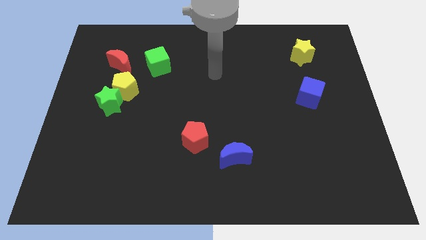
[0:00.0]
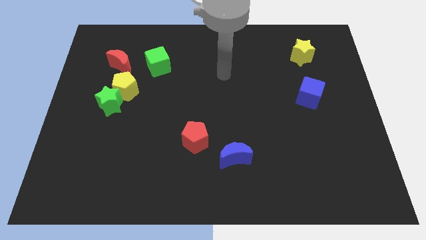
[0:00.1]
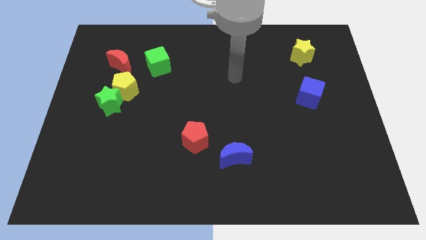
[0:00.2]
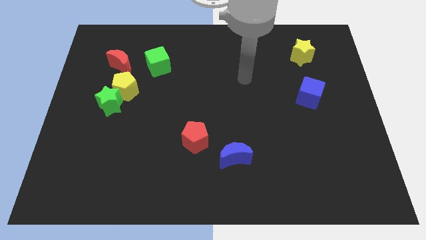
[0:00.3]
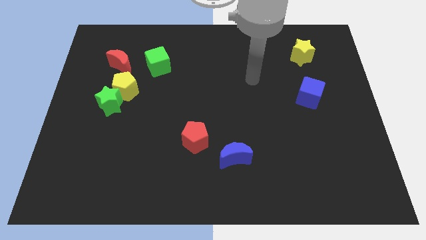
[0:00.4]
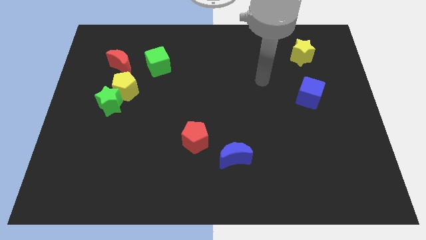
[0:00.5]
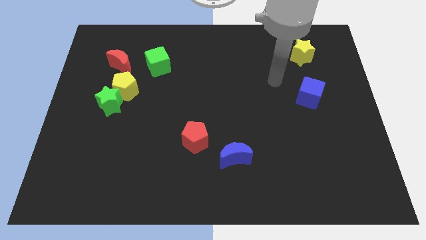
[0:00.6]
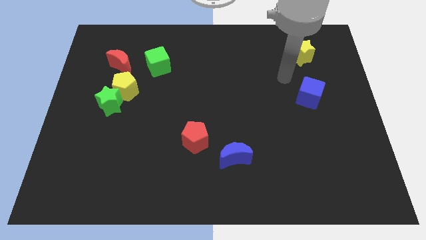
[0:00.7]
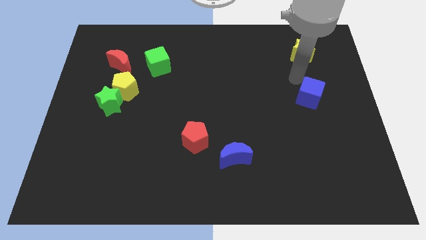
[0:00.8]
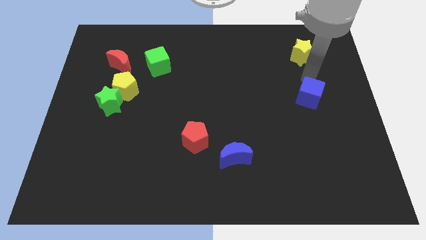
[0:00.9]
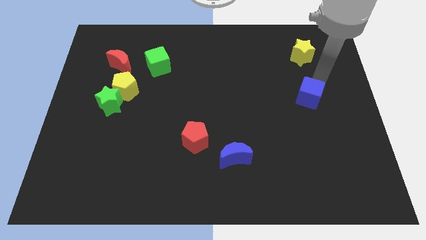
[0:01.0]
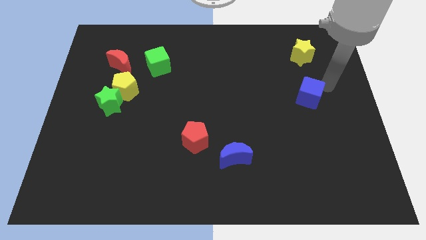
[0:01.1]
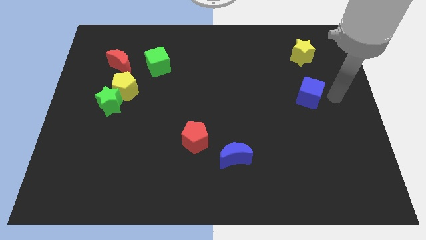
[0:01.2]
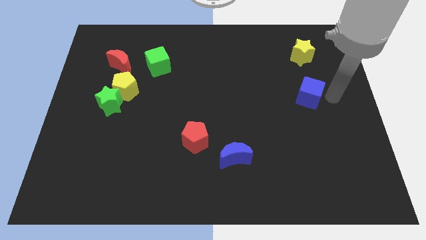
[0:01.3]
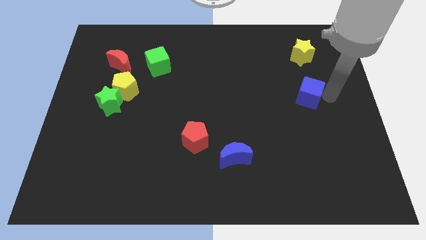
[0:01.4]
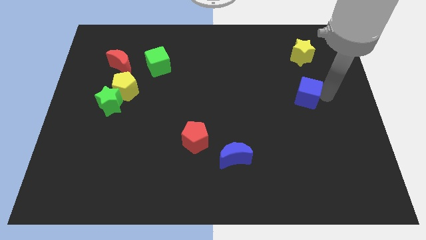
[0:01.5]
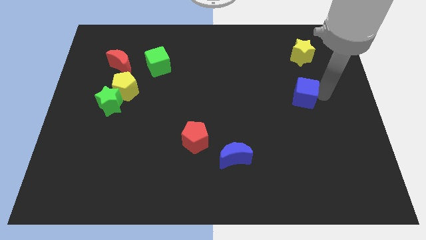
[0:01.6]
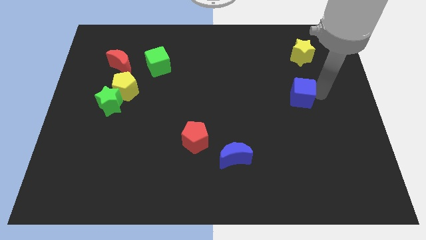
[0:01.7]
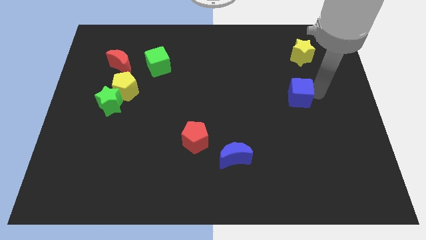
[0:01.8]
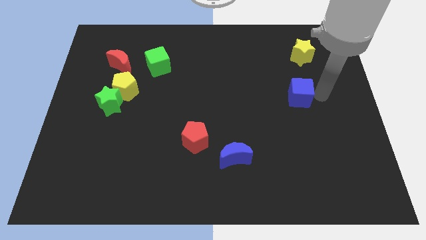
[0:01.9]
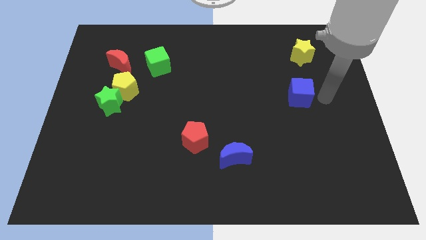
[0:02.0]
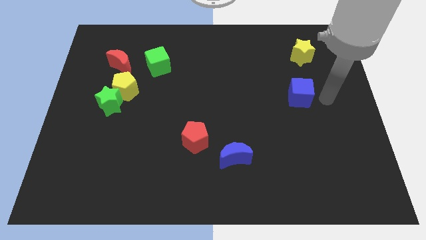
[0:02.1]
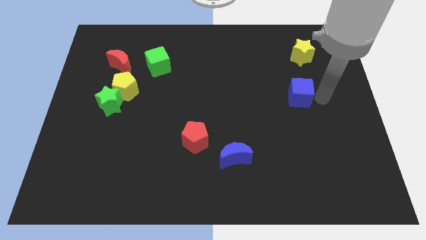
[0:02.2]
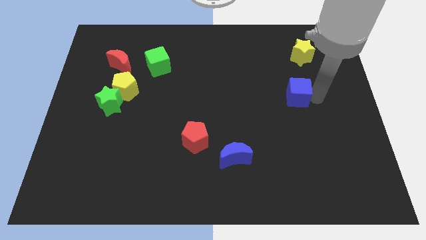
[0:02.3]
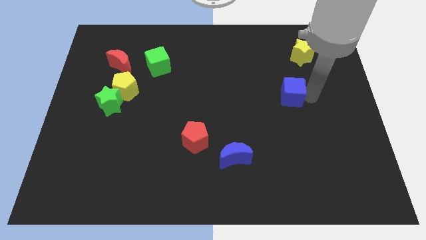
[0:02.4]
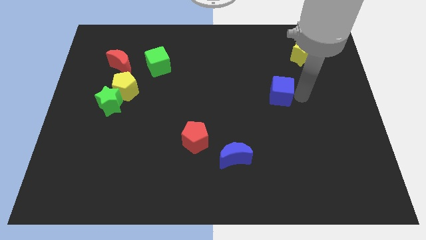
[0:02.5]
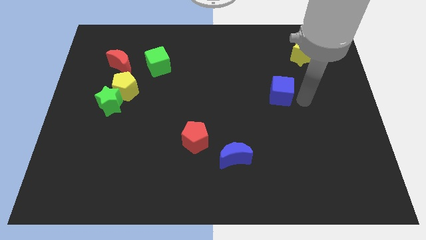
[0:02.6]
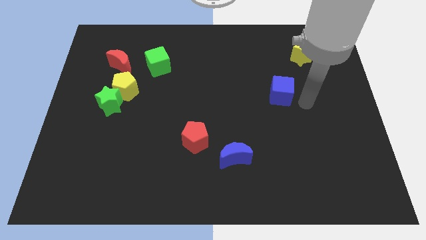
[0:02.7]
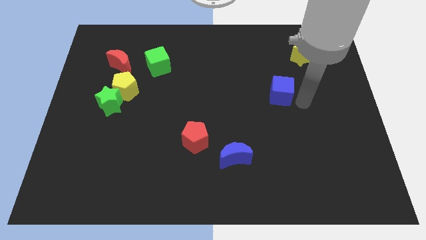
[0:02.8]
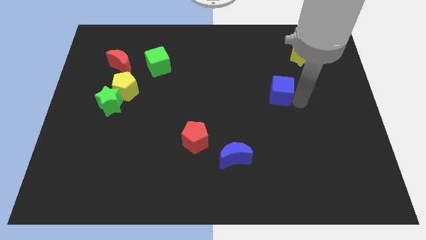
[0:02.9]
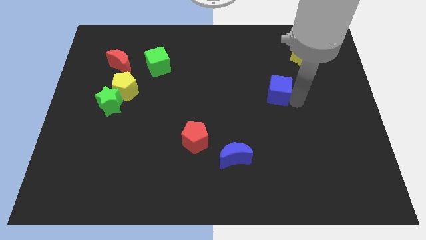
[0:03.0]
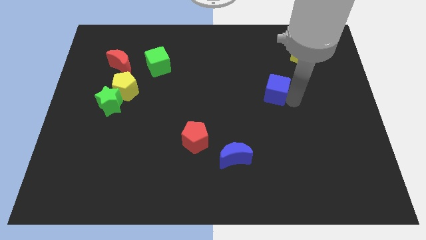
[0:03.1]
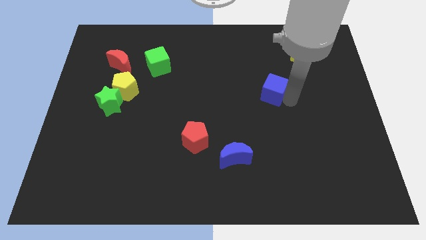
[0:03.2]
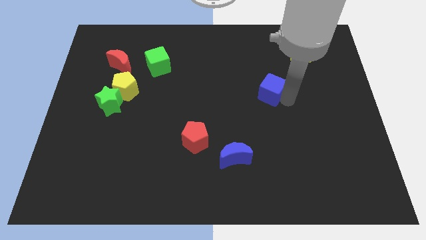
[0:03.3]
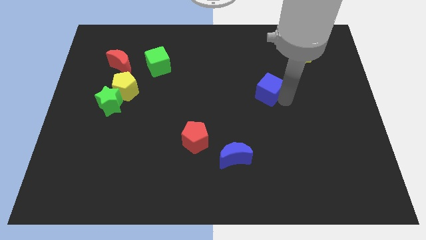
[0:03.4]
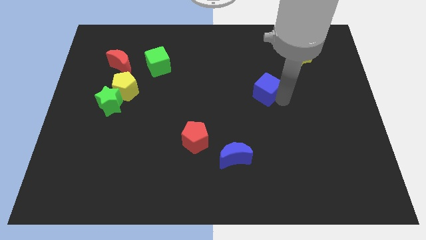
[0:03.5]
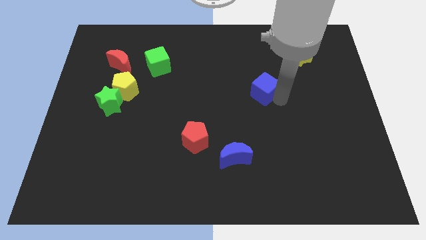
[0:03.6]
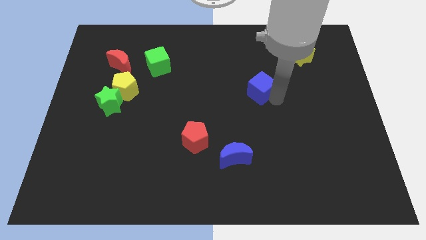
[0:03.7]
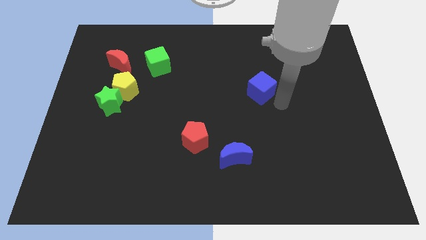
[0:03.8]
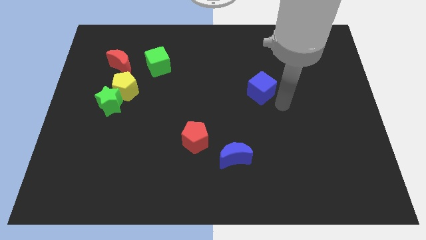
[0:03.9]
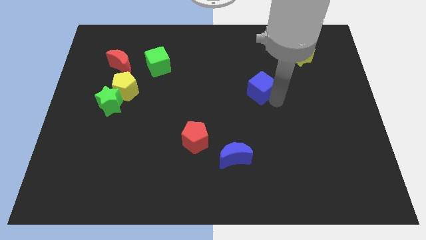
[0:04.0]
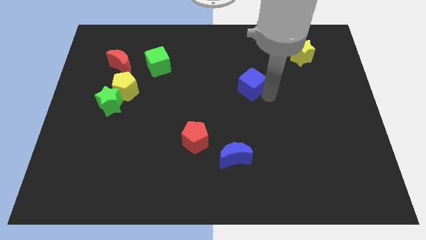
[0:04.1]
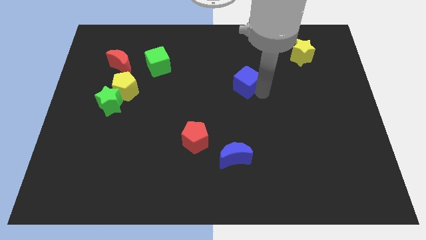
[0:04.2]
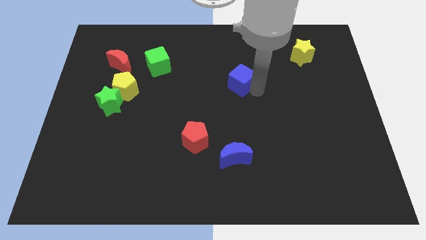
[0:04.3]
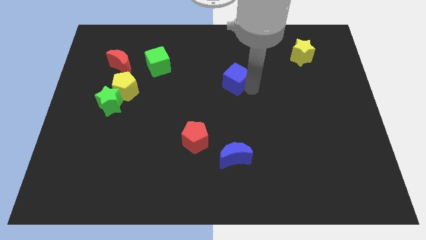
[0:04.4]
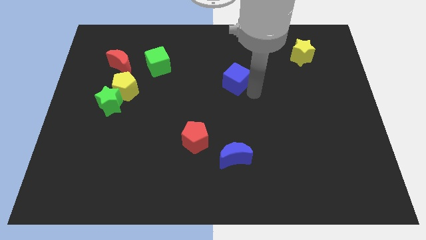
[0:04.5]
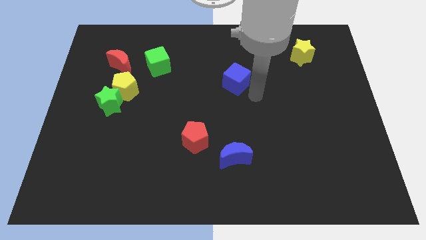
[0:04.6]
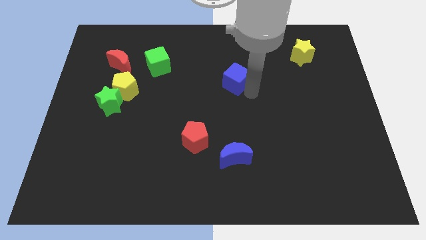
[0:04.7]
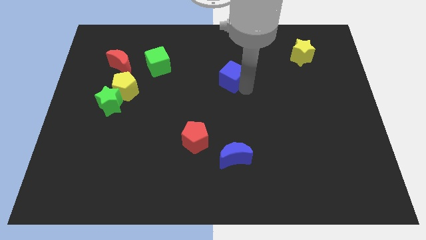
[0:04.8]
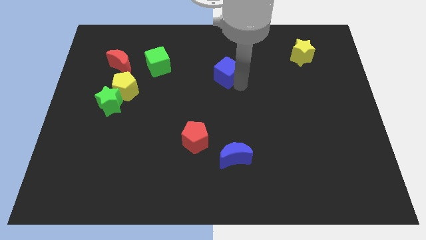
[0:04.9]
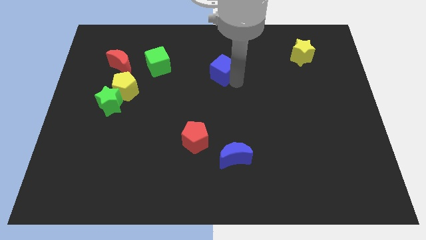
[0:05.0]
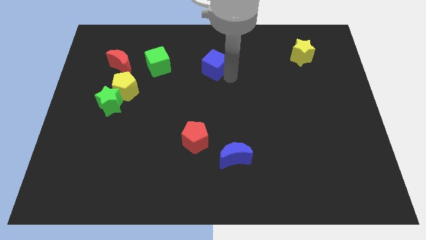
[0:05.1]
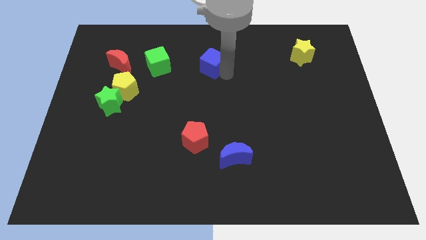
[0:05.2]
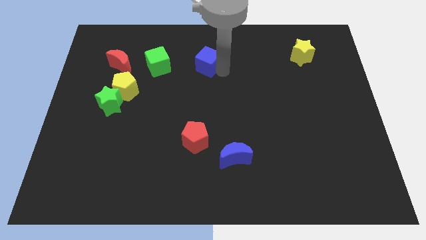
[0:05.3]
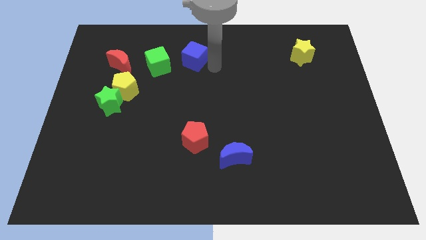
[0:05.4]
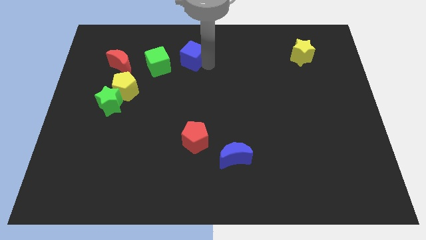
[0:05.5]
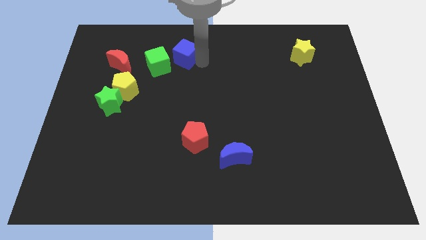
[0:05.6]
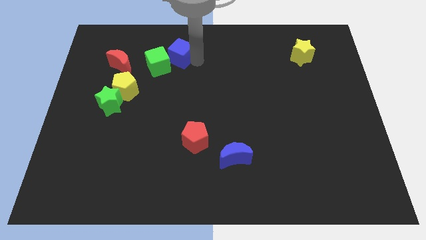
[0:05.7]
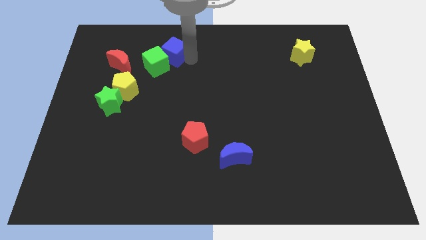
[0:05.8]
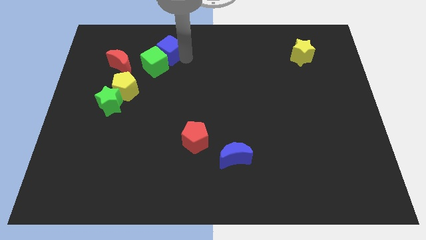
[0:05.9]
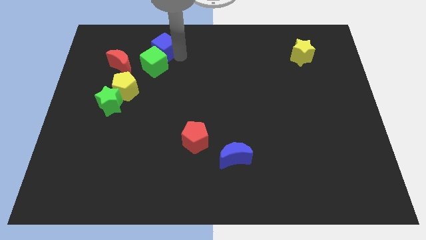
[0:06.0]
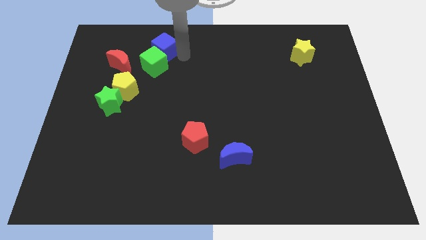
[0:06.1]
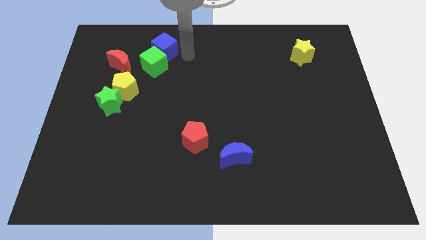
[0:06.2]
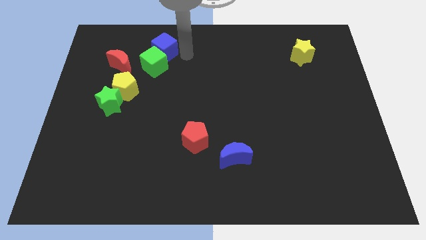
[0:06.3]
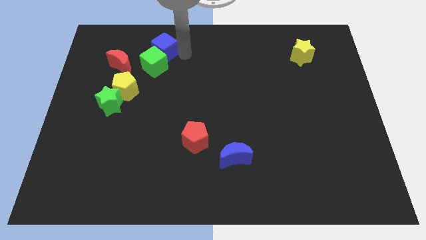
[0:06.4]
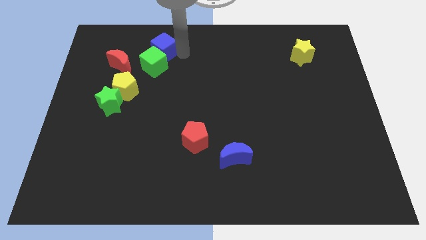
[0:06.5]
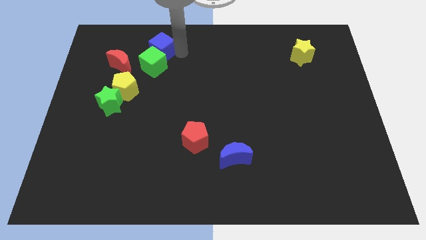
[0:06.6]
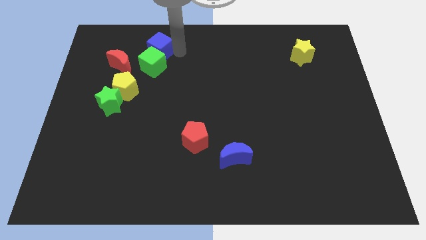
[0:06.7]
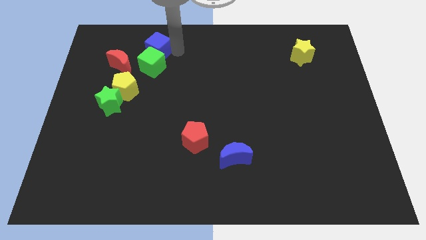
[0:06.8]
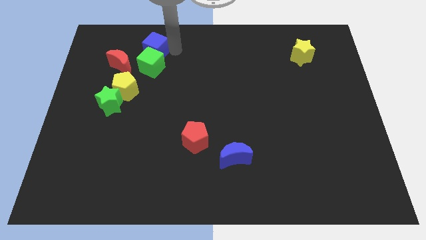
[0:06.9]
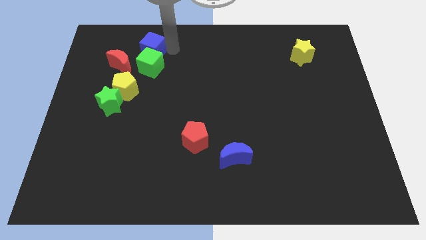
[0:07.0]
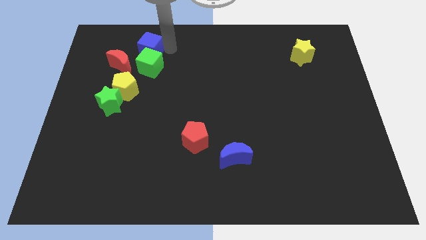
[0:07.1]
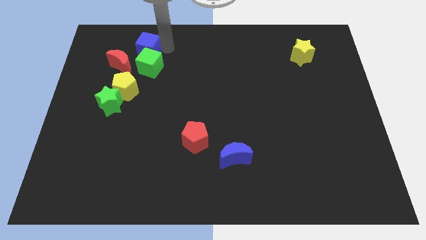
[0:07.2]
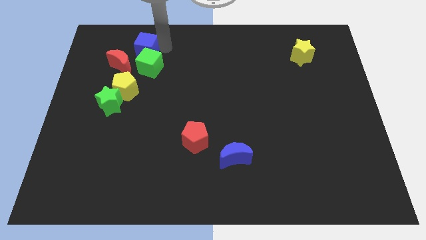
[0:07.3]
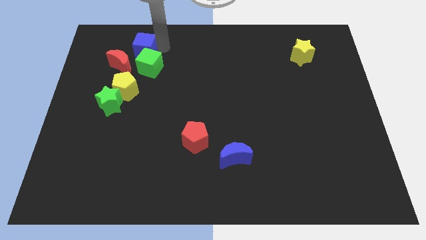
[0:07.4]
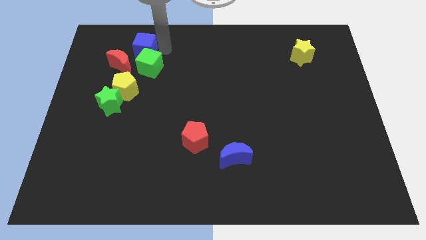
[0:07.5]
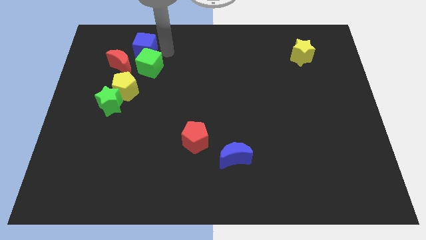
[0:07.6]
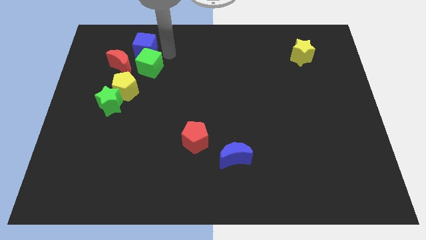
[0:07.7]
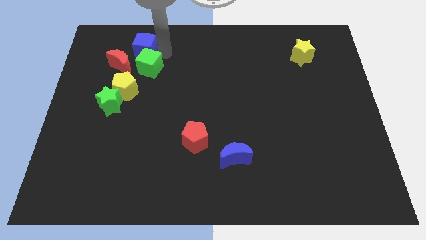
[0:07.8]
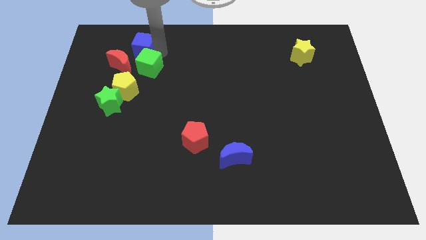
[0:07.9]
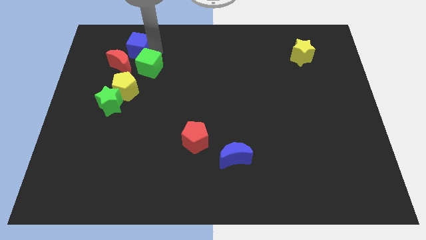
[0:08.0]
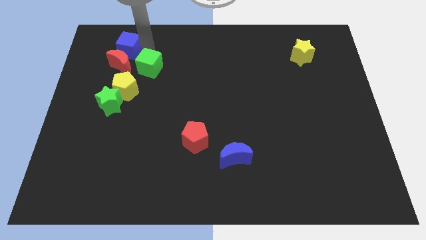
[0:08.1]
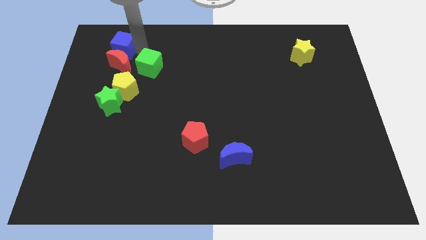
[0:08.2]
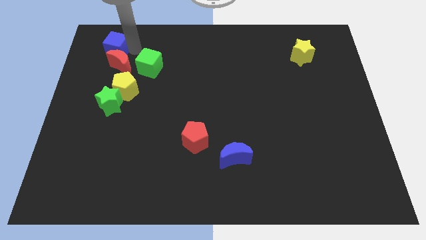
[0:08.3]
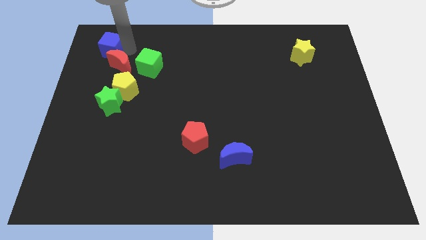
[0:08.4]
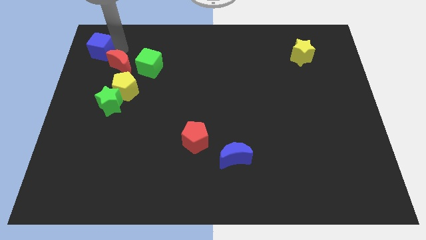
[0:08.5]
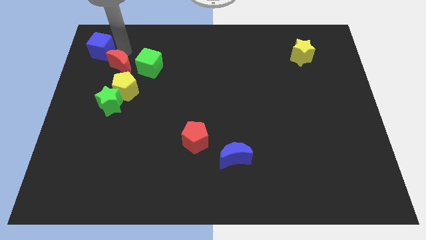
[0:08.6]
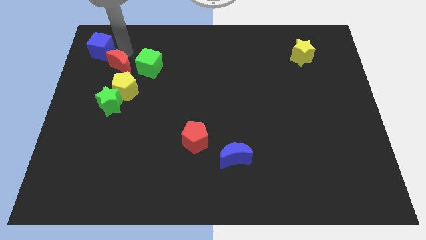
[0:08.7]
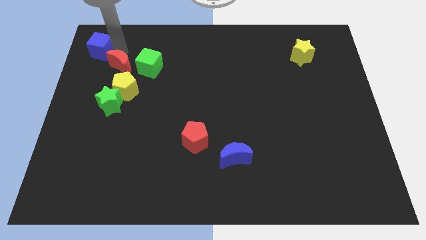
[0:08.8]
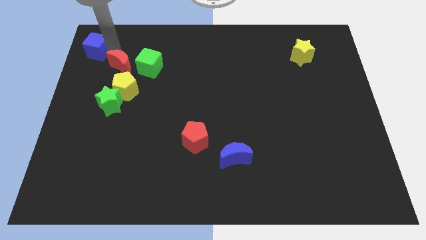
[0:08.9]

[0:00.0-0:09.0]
move the blue cube to the top left
